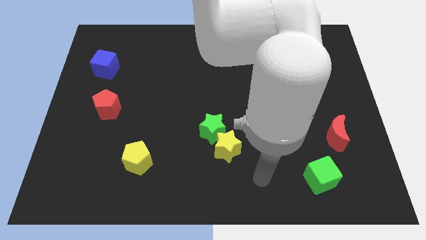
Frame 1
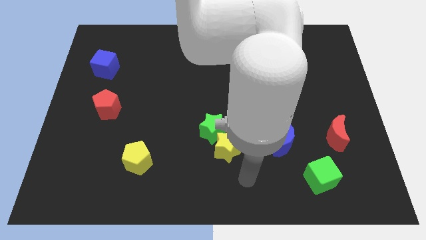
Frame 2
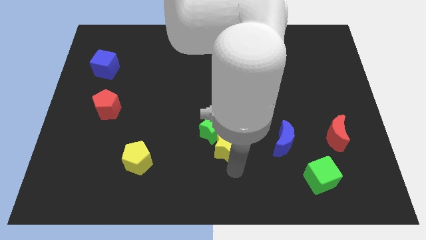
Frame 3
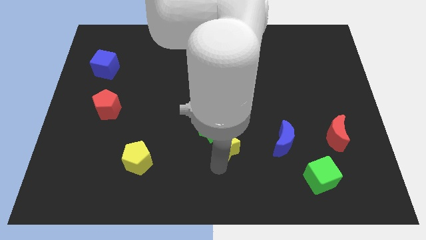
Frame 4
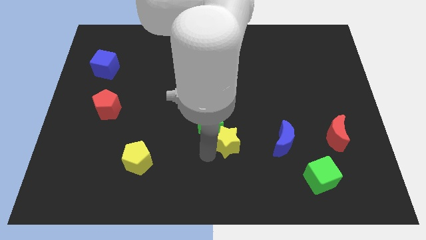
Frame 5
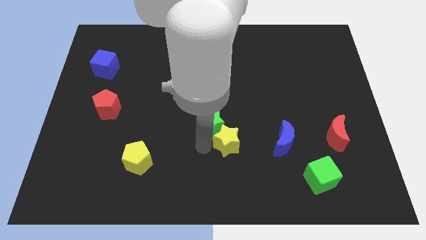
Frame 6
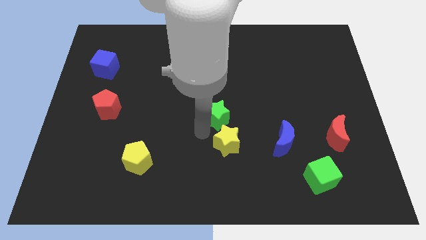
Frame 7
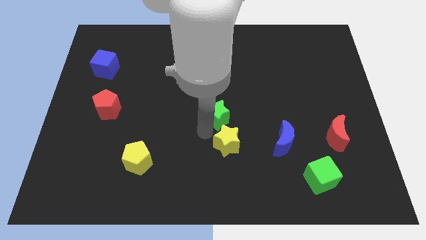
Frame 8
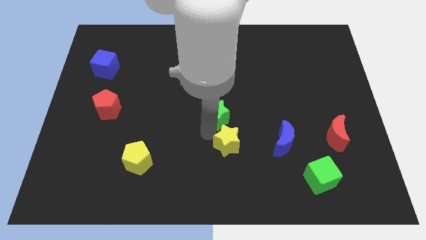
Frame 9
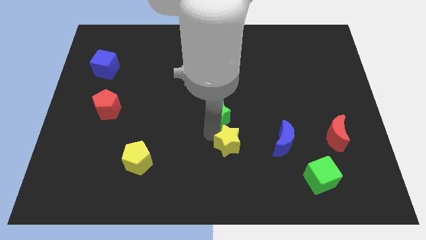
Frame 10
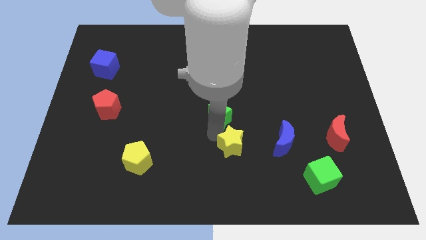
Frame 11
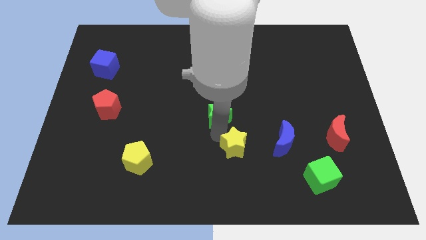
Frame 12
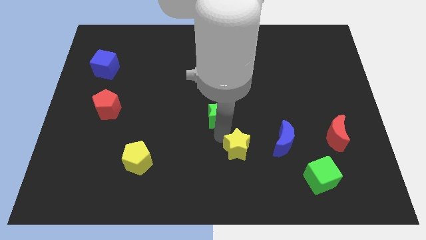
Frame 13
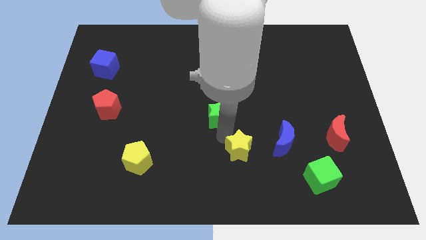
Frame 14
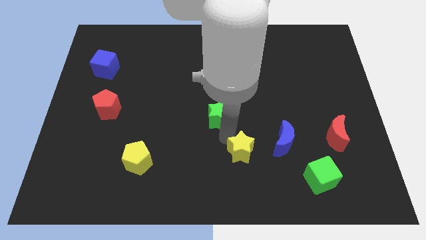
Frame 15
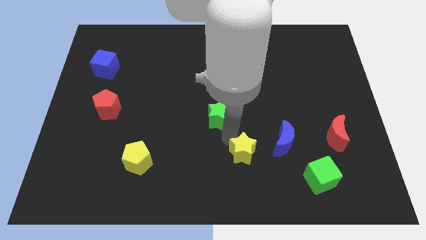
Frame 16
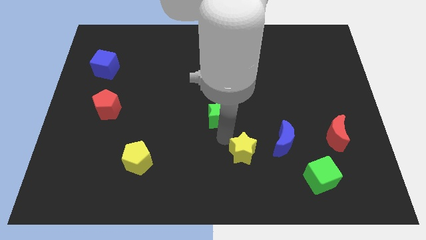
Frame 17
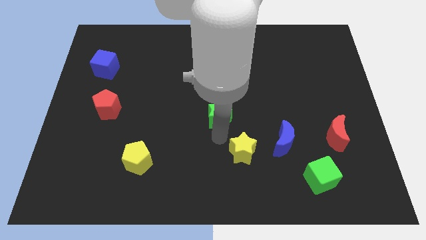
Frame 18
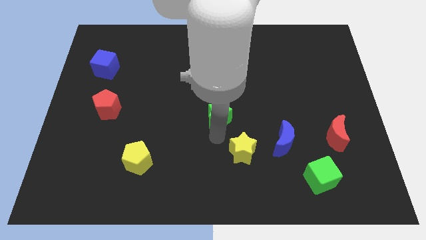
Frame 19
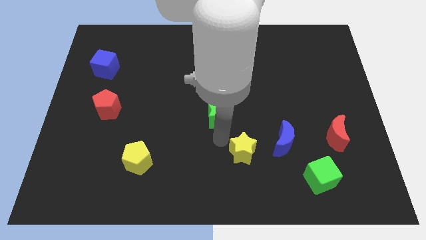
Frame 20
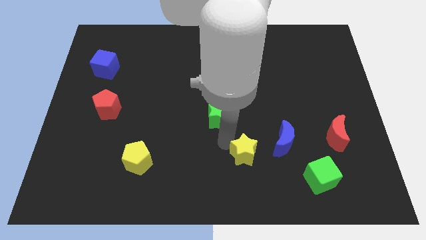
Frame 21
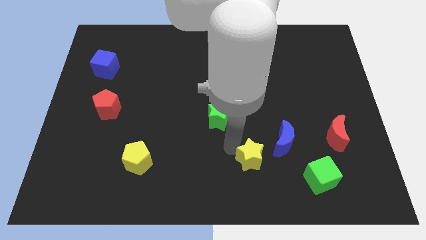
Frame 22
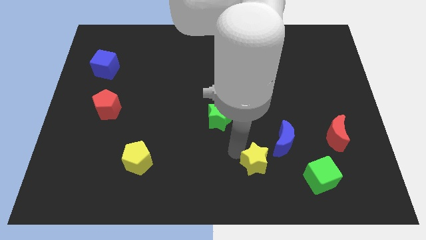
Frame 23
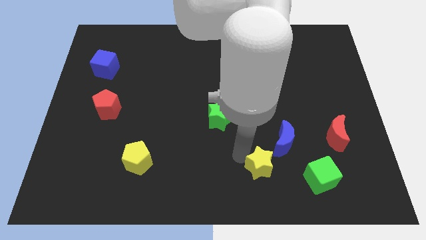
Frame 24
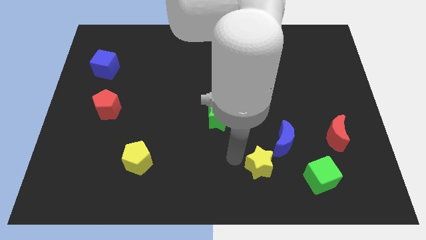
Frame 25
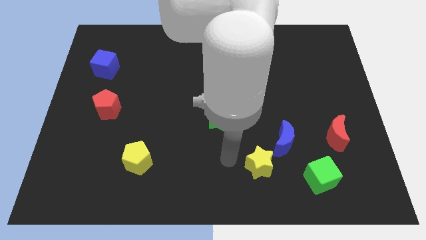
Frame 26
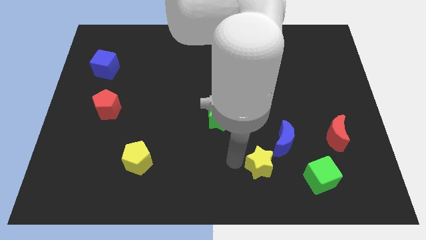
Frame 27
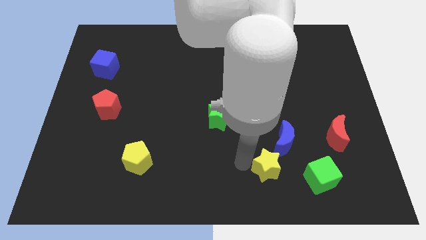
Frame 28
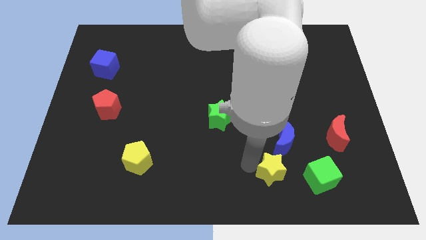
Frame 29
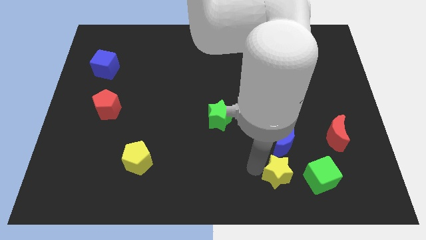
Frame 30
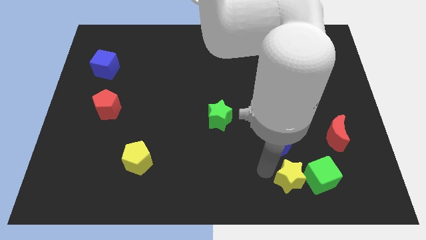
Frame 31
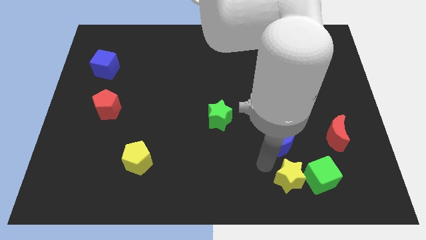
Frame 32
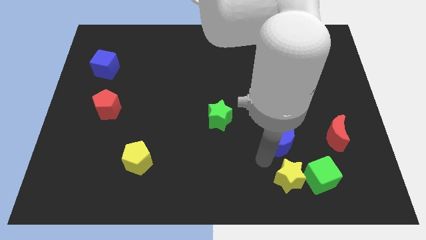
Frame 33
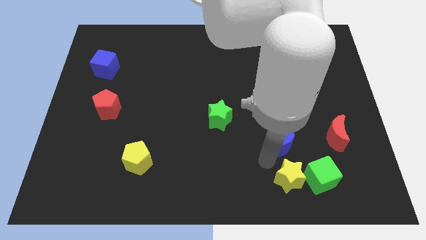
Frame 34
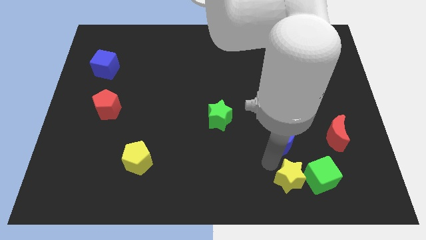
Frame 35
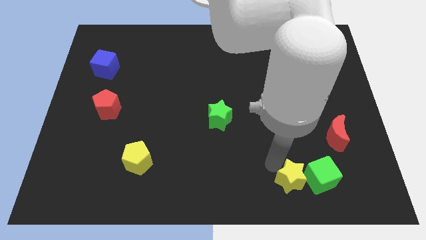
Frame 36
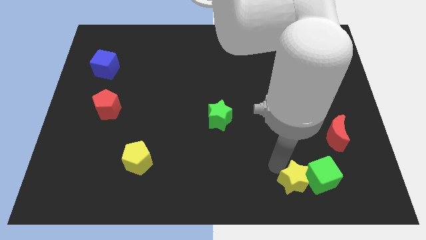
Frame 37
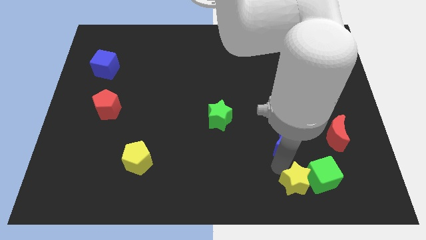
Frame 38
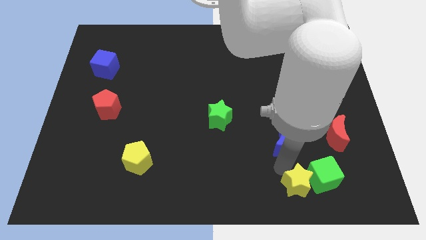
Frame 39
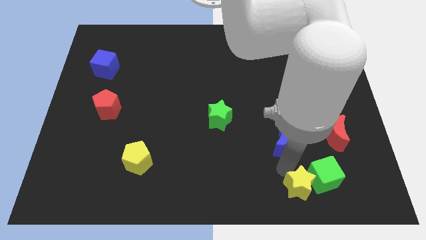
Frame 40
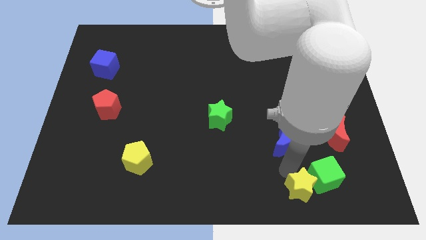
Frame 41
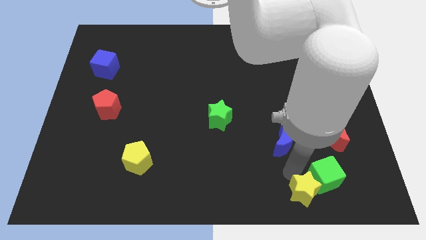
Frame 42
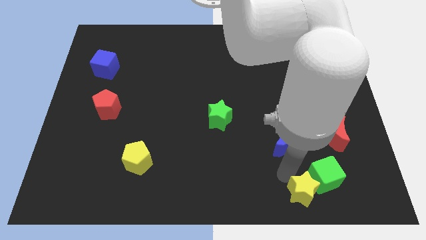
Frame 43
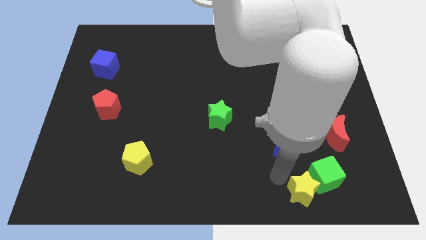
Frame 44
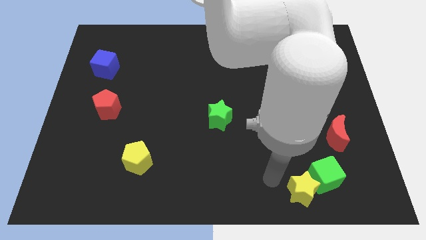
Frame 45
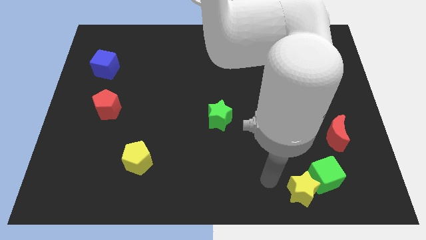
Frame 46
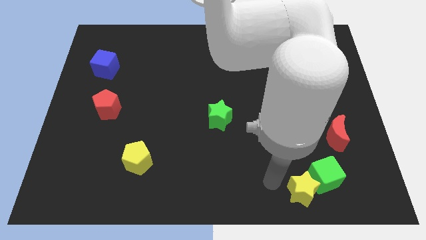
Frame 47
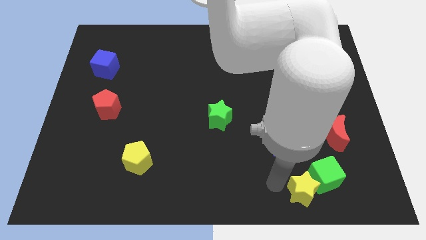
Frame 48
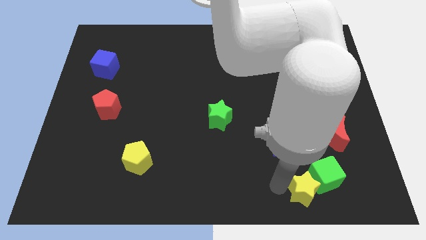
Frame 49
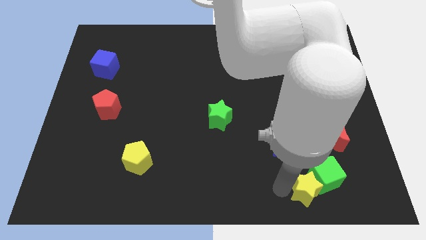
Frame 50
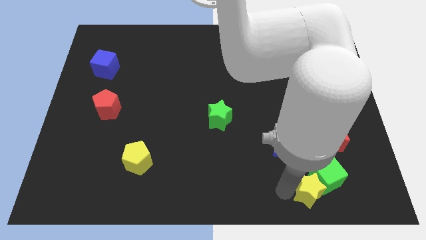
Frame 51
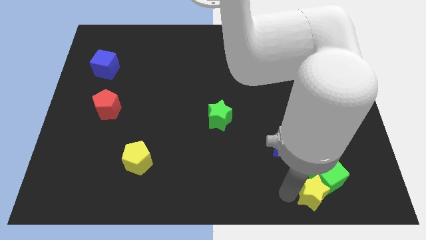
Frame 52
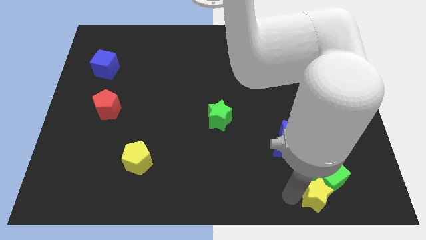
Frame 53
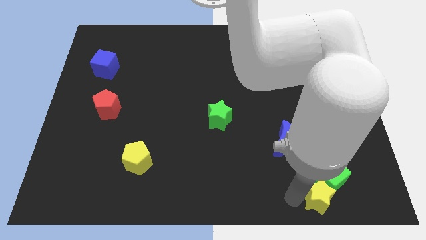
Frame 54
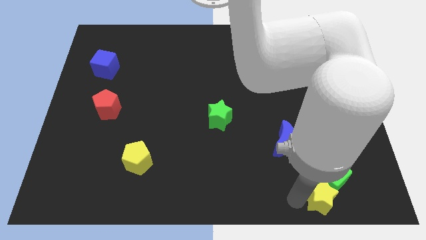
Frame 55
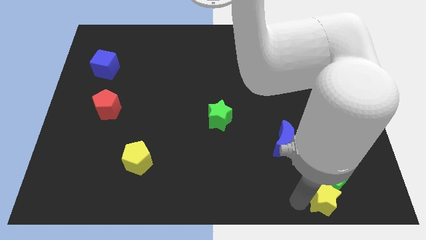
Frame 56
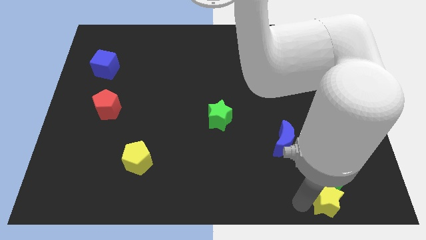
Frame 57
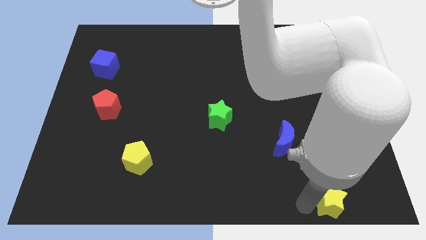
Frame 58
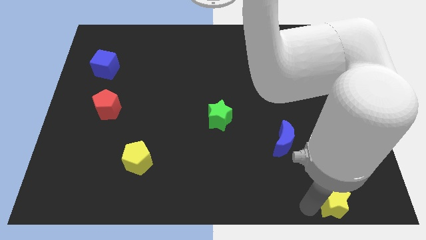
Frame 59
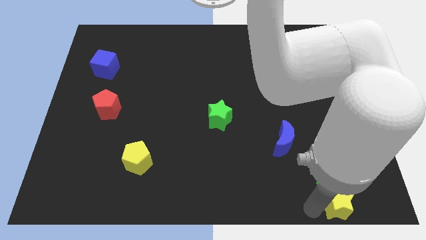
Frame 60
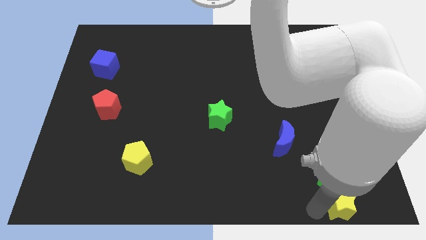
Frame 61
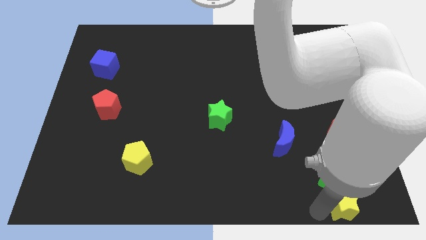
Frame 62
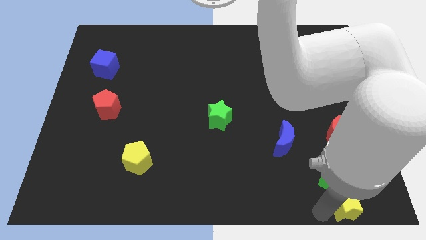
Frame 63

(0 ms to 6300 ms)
put the yellow star to the bottom right corner
